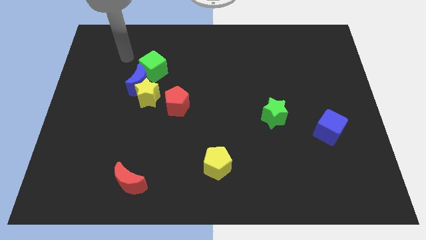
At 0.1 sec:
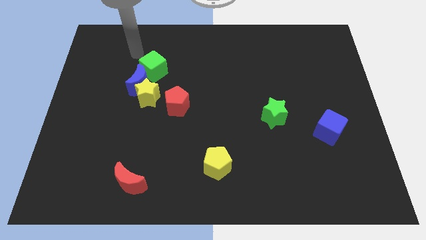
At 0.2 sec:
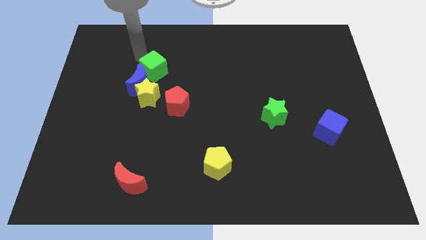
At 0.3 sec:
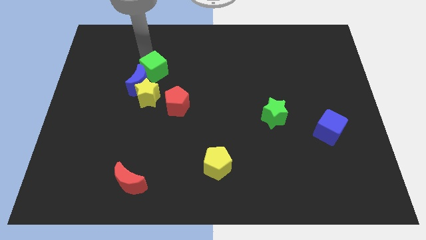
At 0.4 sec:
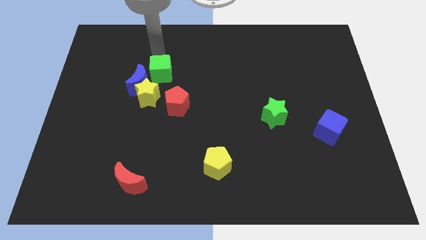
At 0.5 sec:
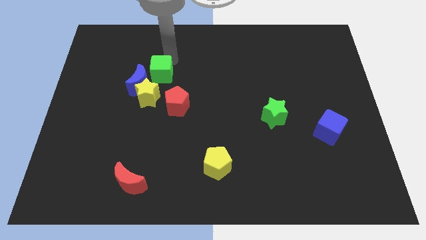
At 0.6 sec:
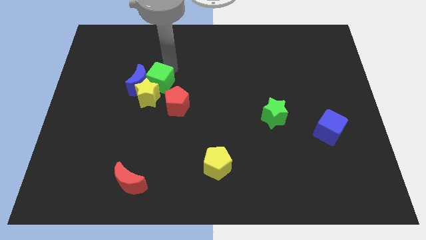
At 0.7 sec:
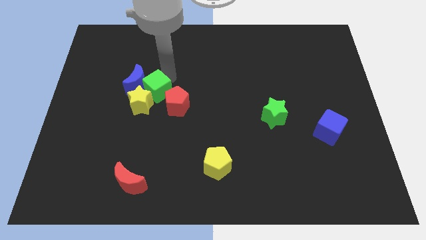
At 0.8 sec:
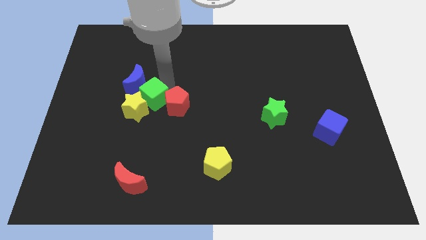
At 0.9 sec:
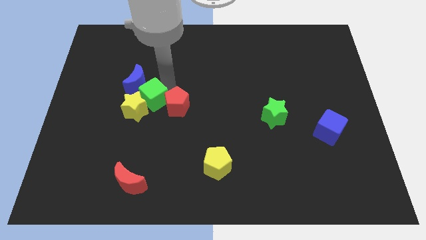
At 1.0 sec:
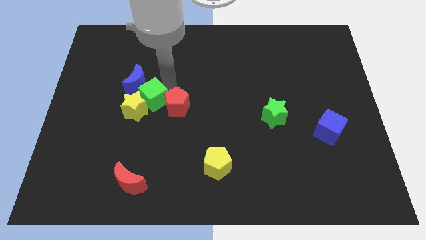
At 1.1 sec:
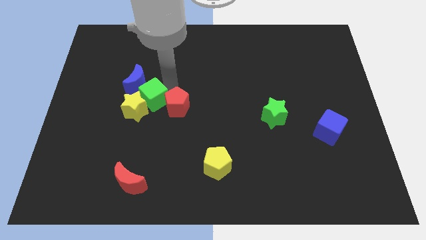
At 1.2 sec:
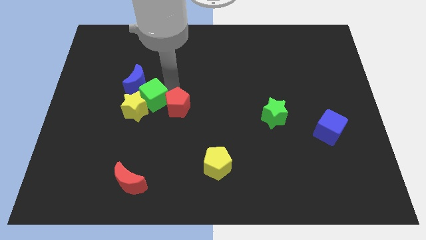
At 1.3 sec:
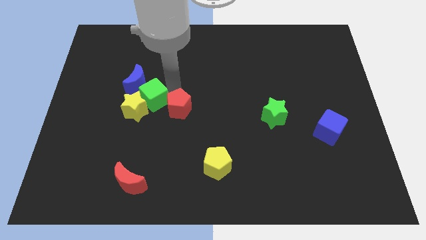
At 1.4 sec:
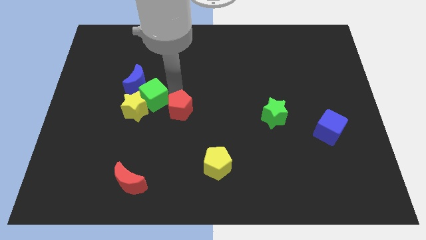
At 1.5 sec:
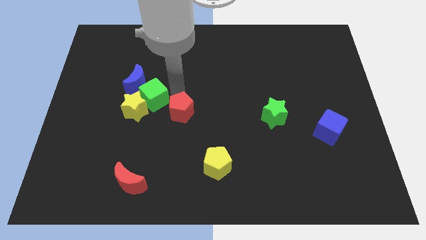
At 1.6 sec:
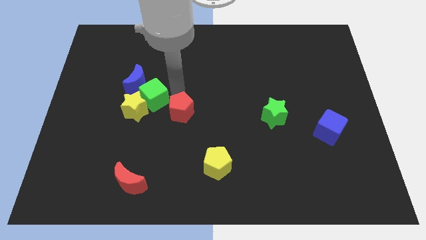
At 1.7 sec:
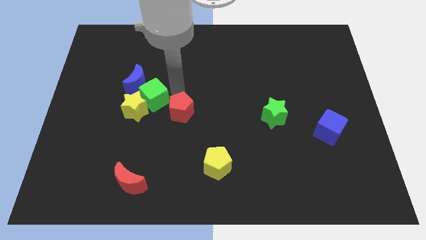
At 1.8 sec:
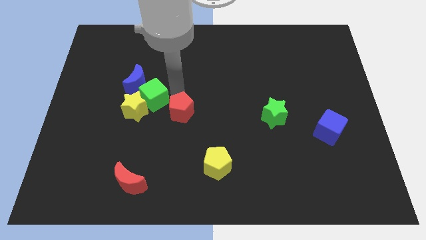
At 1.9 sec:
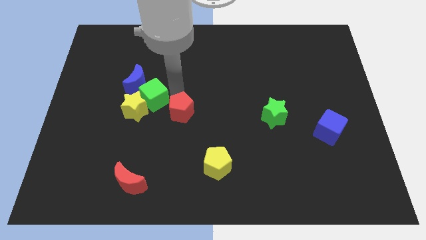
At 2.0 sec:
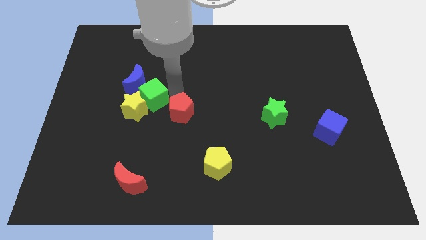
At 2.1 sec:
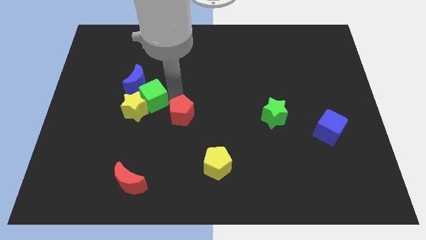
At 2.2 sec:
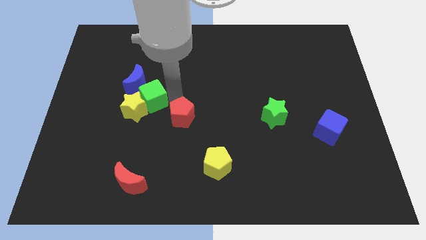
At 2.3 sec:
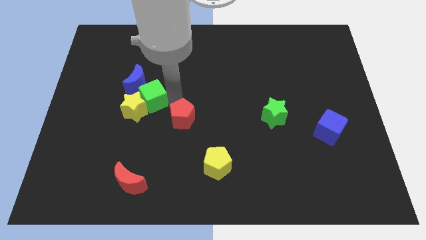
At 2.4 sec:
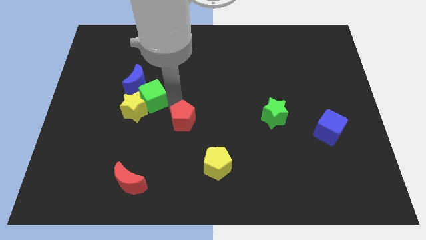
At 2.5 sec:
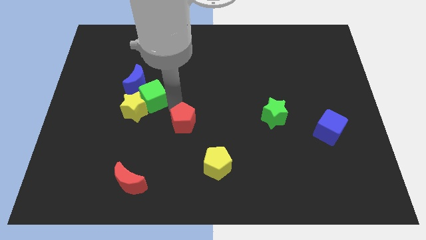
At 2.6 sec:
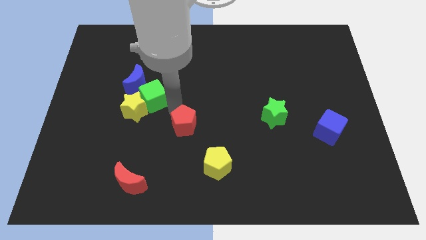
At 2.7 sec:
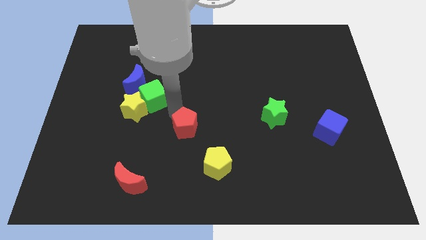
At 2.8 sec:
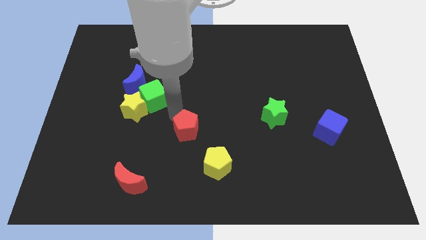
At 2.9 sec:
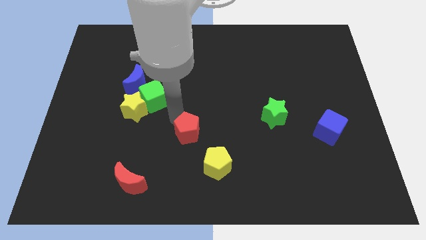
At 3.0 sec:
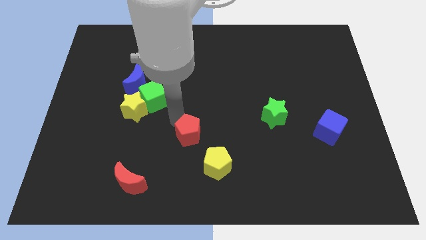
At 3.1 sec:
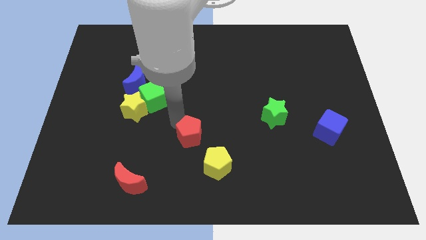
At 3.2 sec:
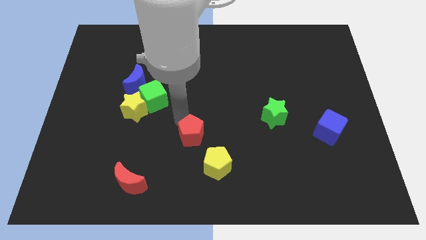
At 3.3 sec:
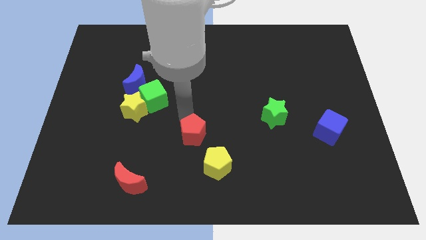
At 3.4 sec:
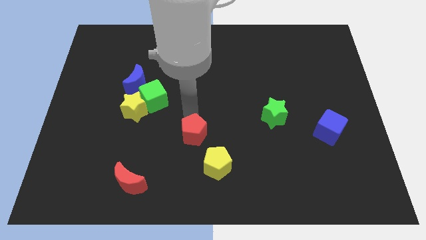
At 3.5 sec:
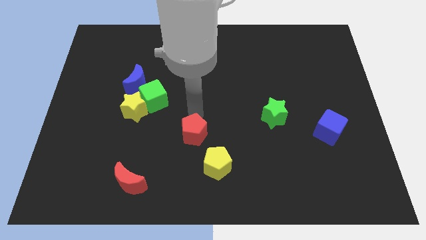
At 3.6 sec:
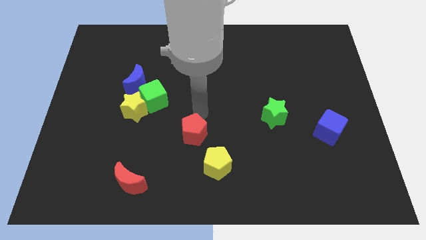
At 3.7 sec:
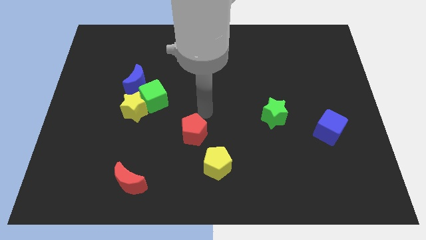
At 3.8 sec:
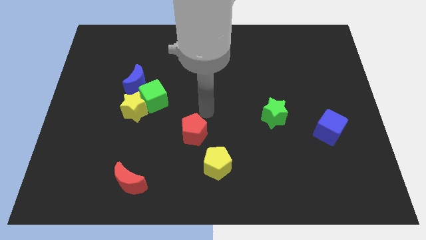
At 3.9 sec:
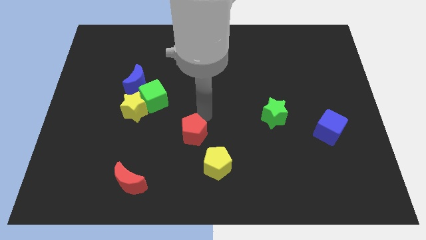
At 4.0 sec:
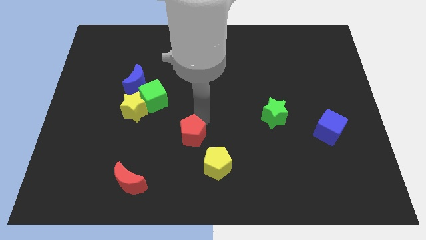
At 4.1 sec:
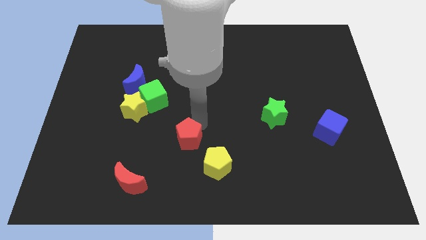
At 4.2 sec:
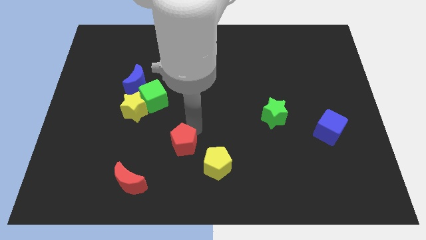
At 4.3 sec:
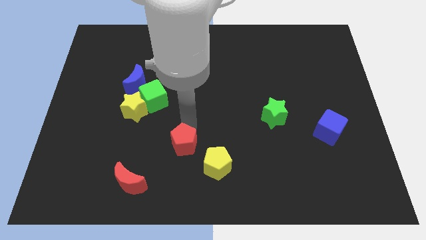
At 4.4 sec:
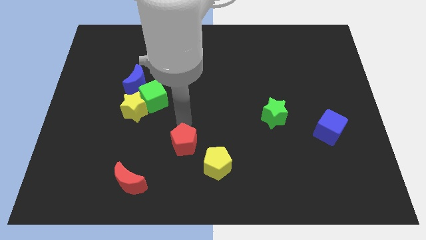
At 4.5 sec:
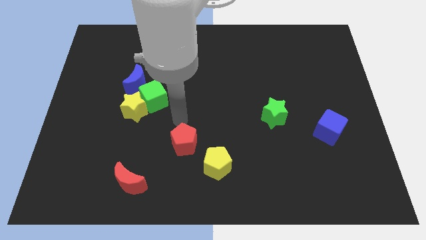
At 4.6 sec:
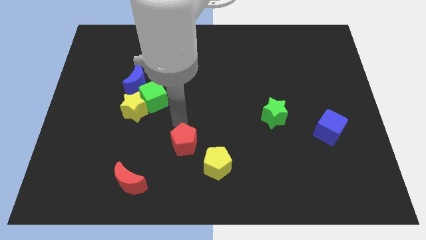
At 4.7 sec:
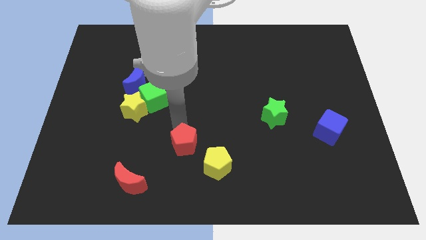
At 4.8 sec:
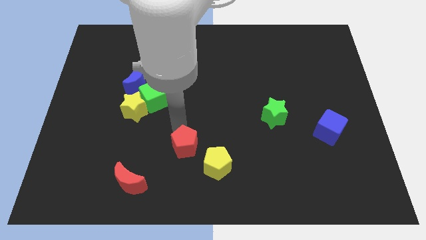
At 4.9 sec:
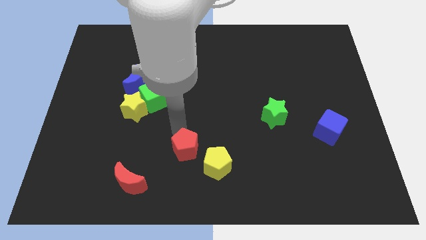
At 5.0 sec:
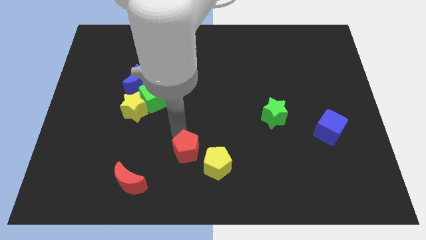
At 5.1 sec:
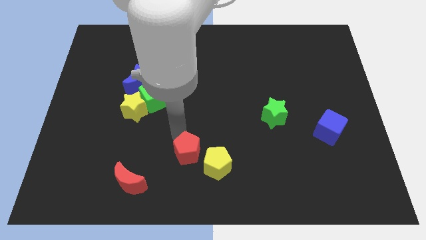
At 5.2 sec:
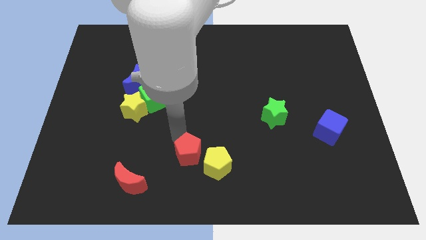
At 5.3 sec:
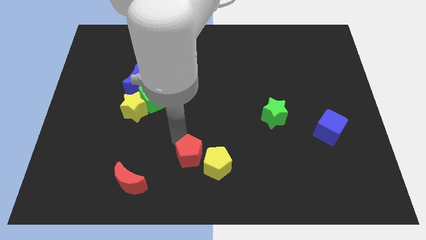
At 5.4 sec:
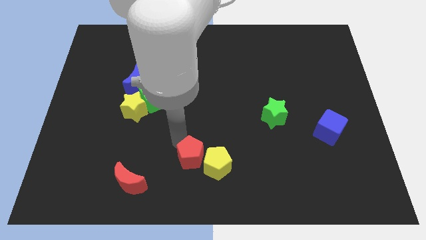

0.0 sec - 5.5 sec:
slide the red pentagon to the bottom side

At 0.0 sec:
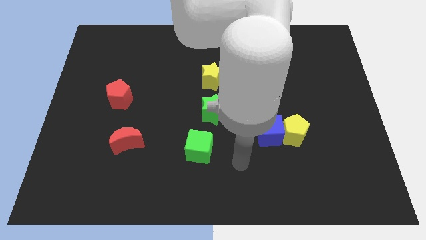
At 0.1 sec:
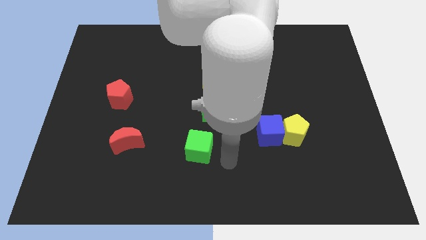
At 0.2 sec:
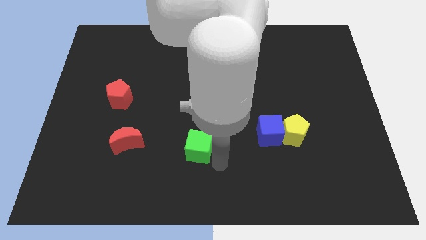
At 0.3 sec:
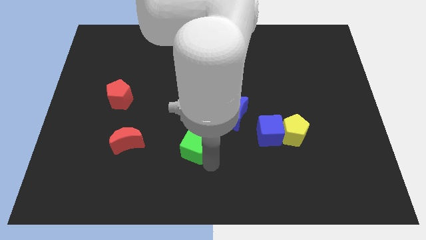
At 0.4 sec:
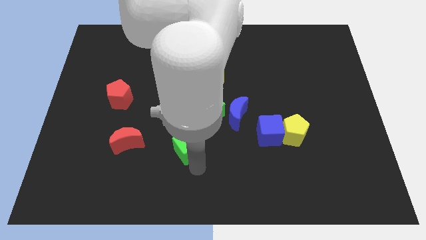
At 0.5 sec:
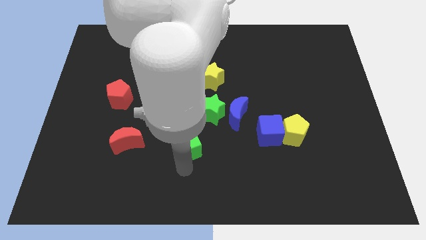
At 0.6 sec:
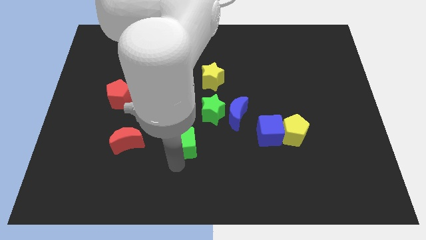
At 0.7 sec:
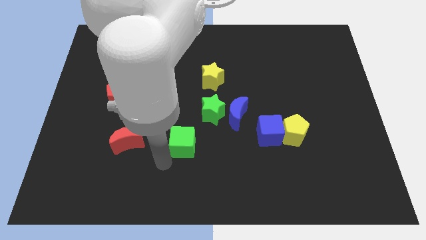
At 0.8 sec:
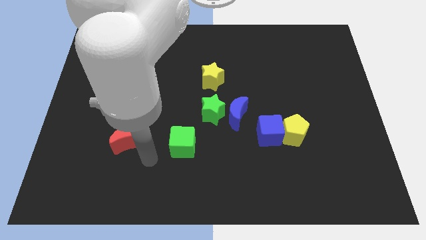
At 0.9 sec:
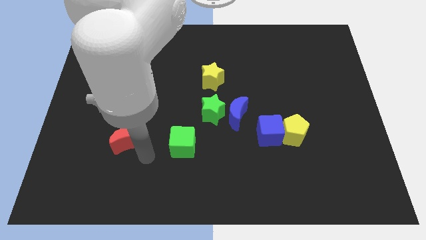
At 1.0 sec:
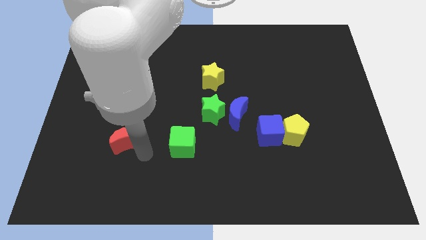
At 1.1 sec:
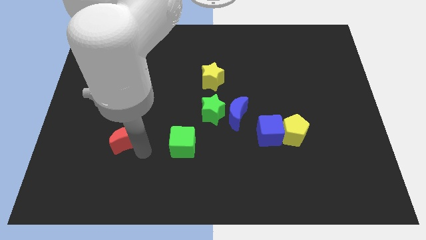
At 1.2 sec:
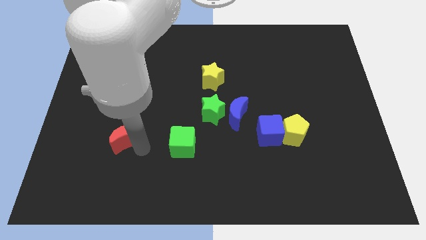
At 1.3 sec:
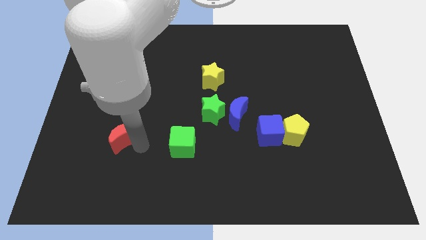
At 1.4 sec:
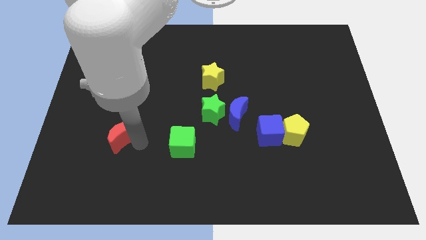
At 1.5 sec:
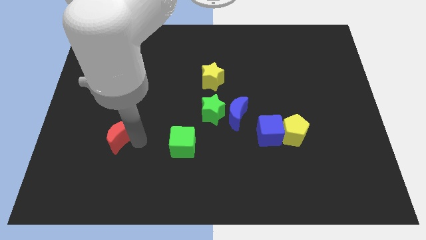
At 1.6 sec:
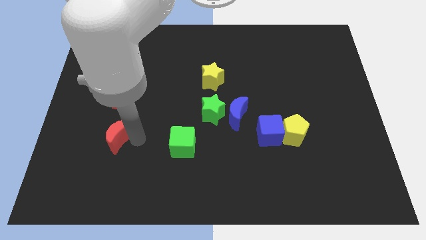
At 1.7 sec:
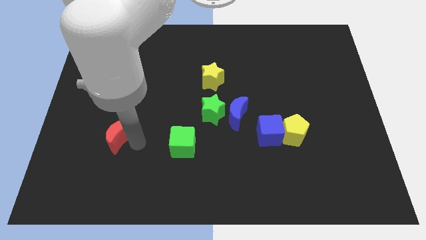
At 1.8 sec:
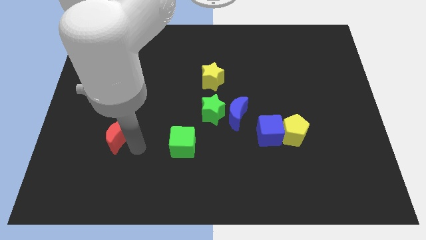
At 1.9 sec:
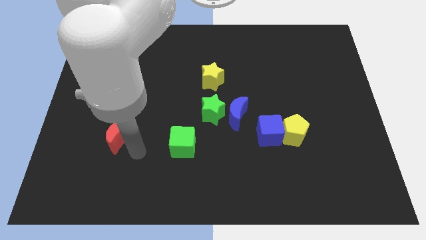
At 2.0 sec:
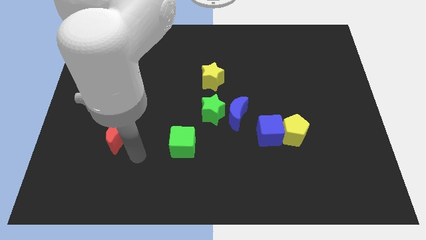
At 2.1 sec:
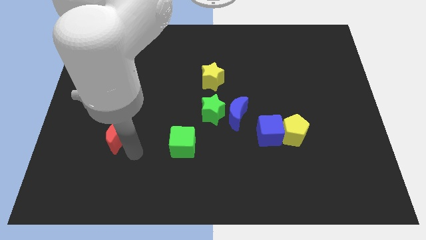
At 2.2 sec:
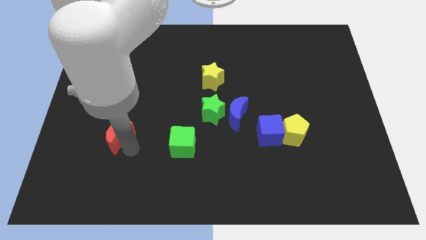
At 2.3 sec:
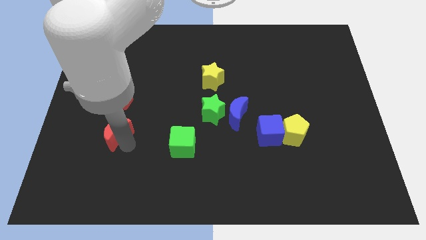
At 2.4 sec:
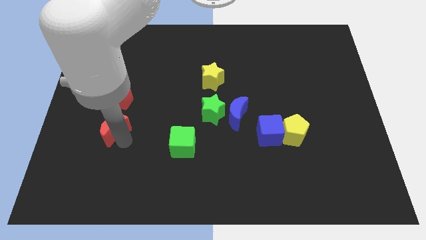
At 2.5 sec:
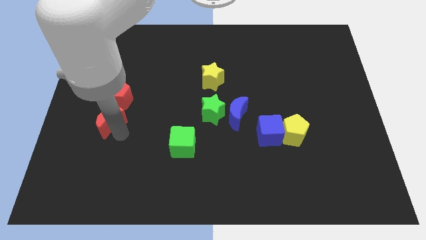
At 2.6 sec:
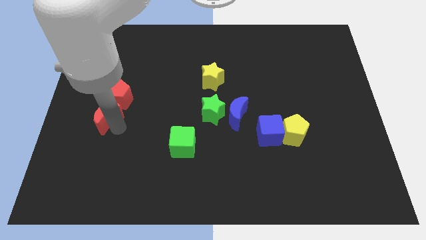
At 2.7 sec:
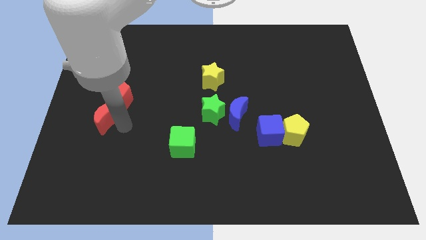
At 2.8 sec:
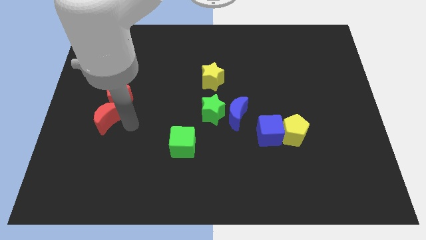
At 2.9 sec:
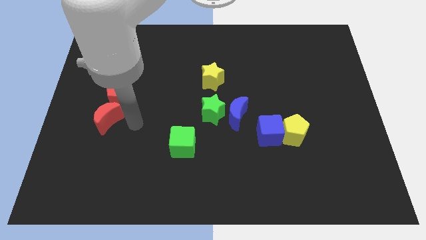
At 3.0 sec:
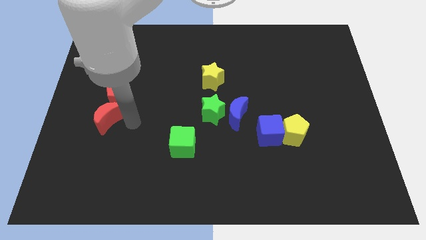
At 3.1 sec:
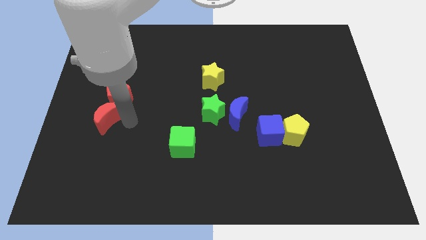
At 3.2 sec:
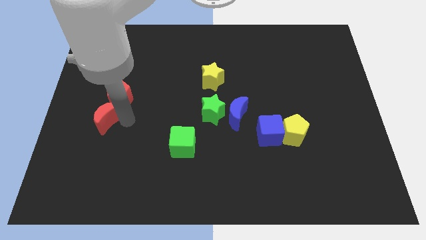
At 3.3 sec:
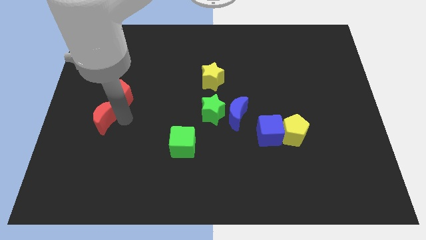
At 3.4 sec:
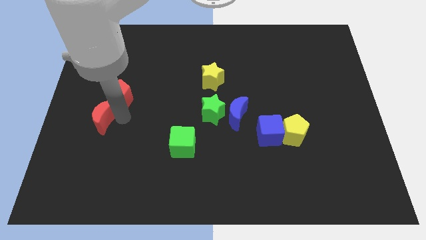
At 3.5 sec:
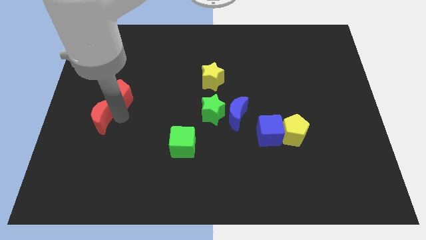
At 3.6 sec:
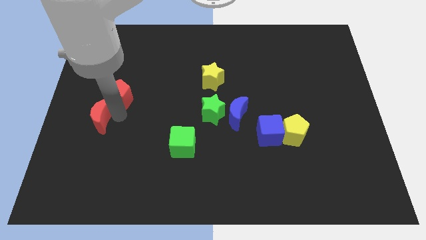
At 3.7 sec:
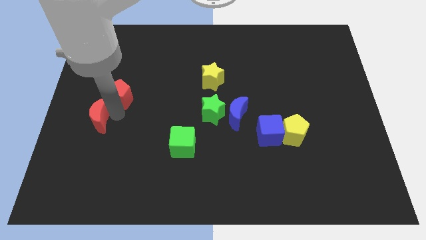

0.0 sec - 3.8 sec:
put the red moon to the center left
